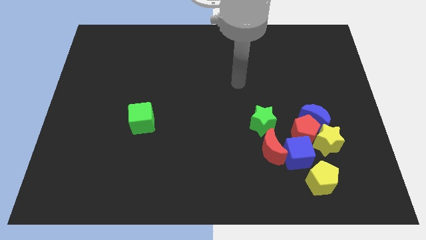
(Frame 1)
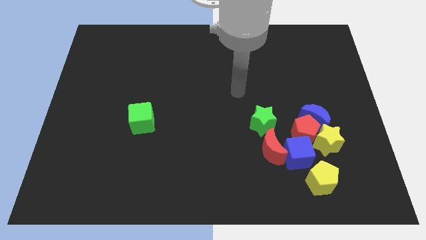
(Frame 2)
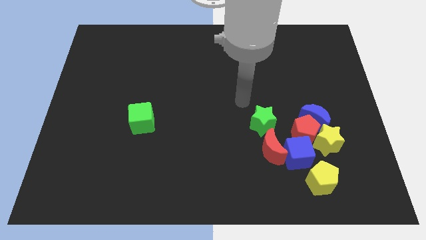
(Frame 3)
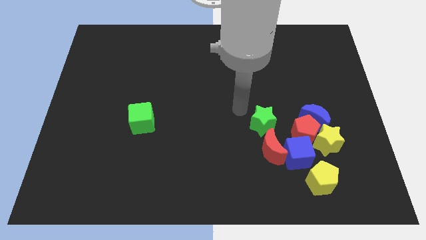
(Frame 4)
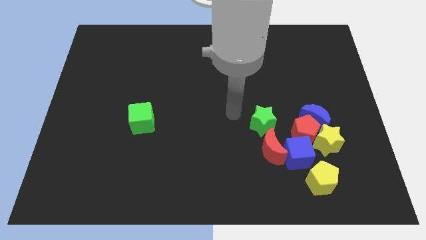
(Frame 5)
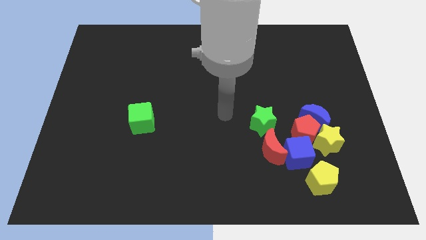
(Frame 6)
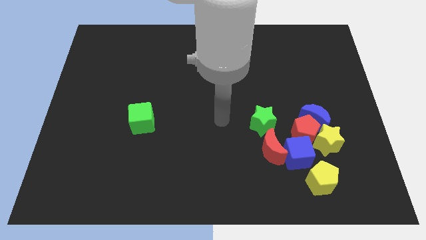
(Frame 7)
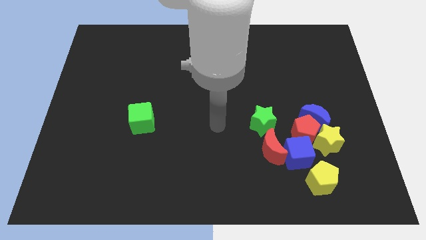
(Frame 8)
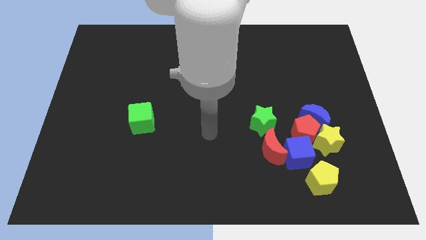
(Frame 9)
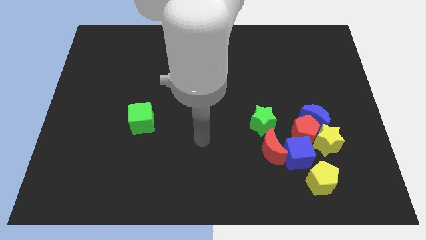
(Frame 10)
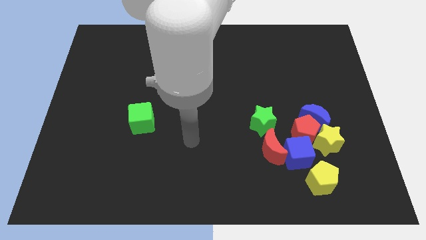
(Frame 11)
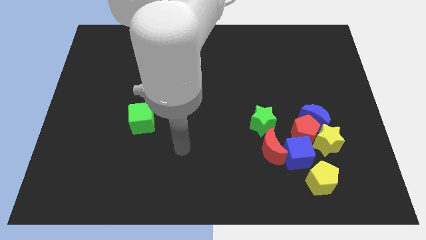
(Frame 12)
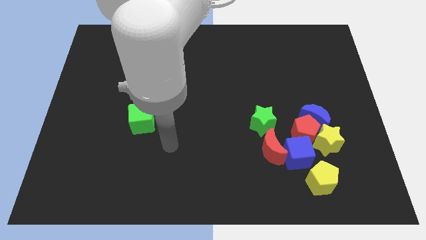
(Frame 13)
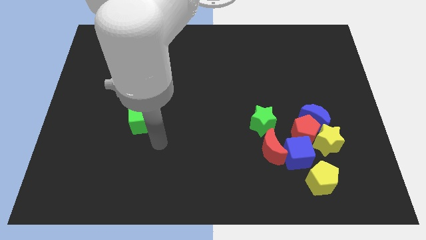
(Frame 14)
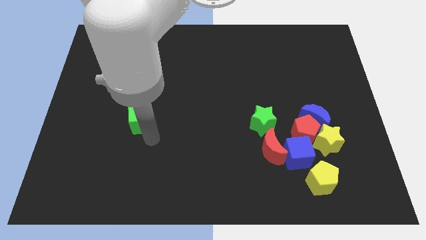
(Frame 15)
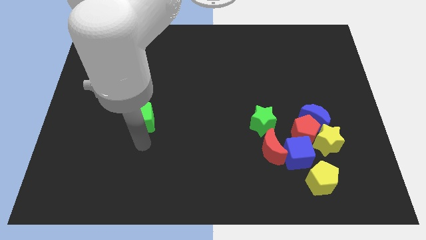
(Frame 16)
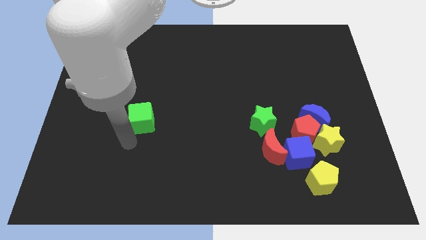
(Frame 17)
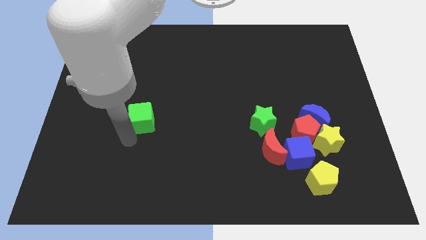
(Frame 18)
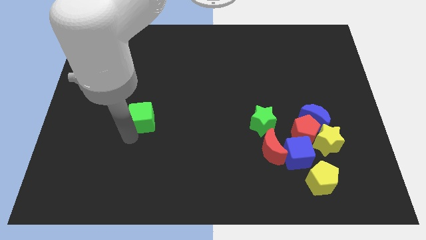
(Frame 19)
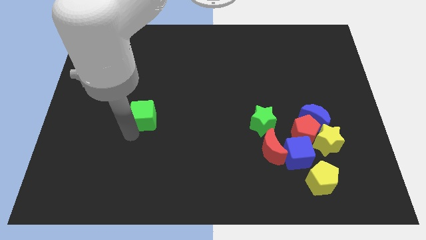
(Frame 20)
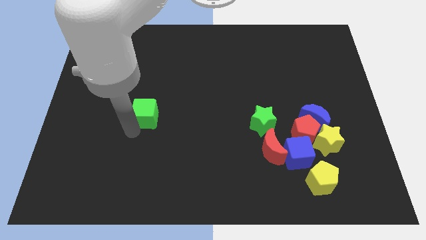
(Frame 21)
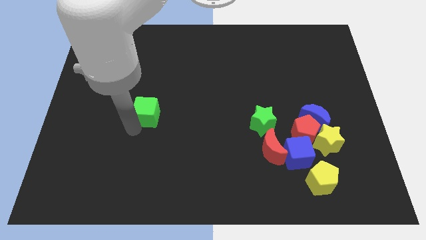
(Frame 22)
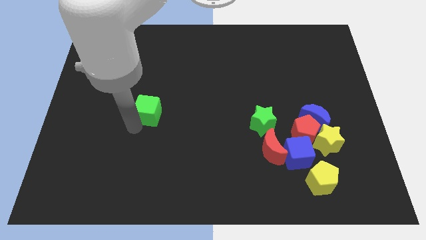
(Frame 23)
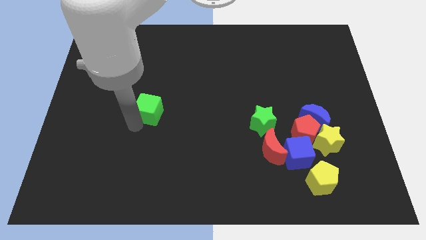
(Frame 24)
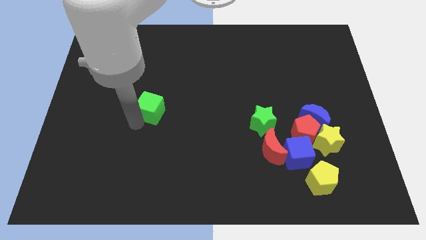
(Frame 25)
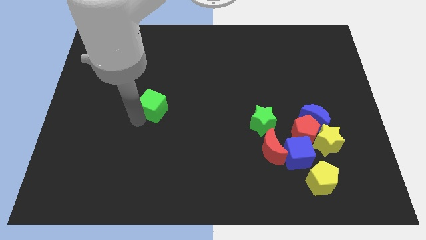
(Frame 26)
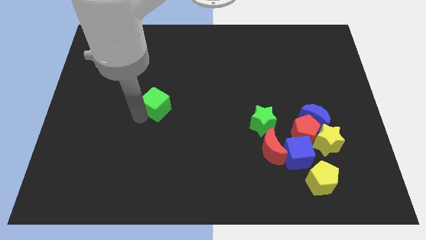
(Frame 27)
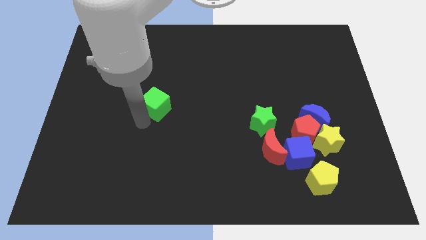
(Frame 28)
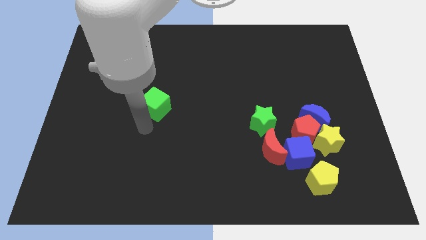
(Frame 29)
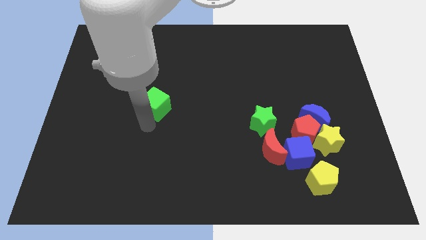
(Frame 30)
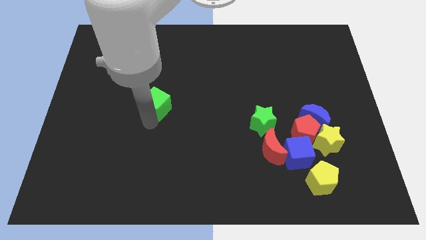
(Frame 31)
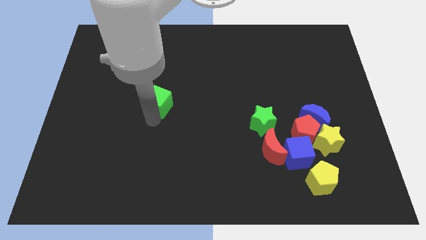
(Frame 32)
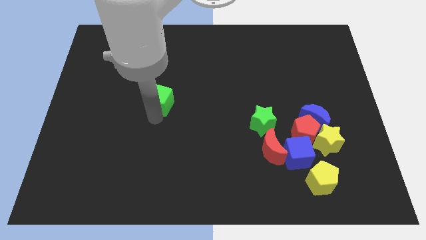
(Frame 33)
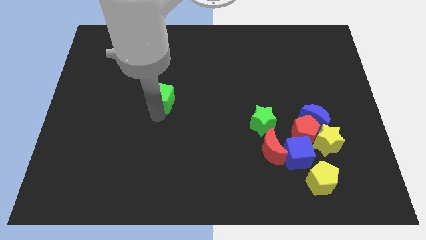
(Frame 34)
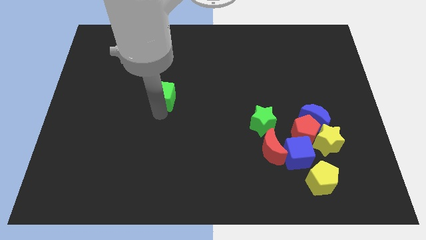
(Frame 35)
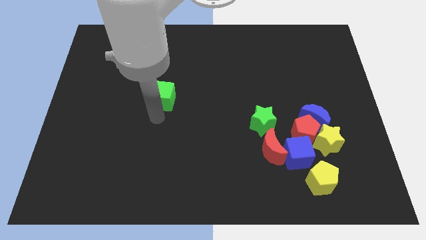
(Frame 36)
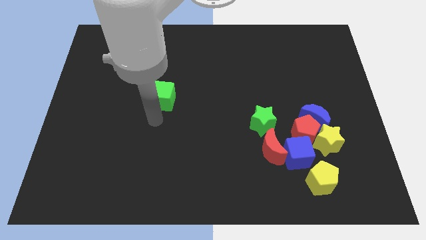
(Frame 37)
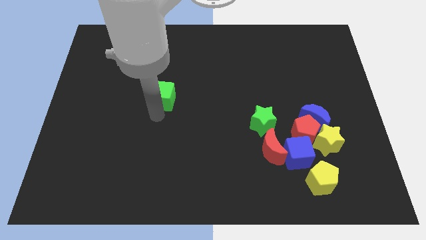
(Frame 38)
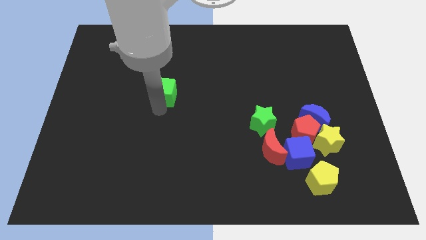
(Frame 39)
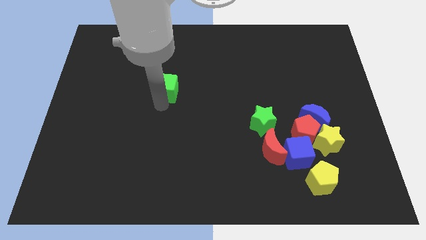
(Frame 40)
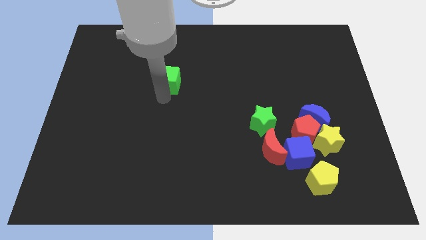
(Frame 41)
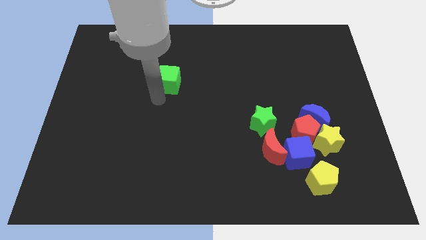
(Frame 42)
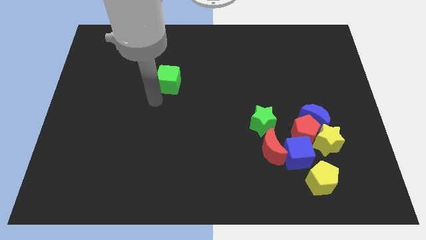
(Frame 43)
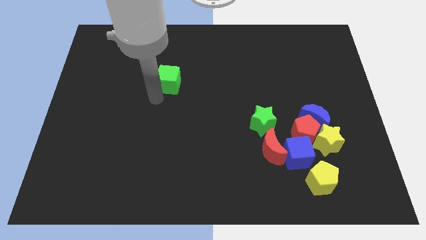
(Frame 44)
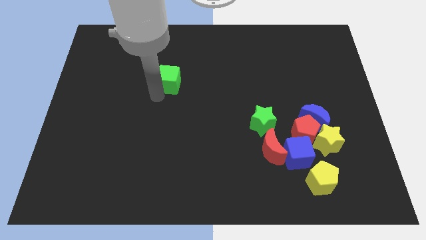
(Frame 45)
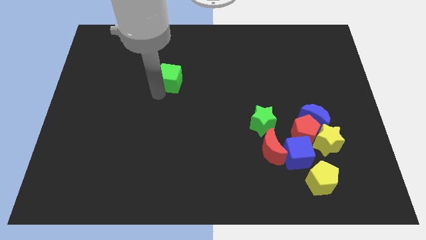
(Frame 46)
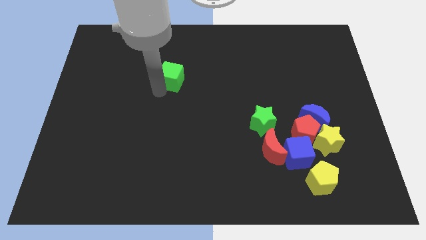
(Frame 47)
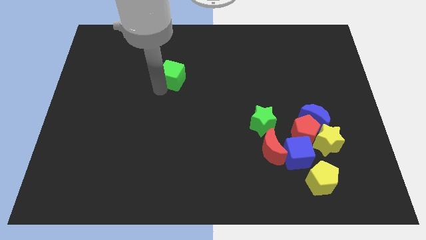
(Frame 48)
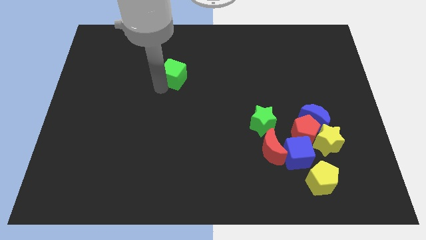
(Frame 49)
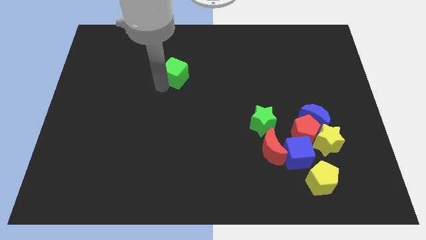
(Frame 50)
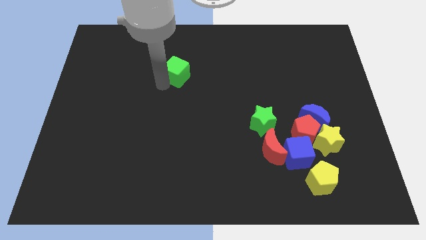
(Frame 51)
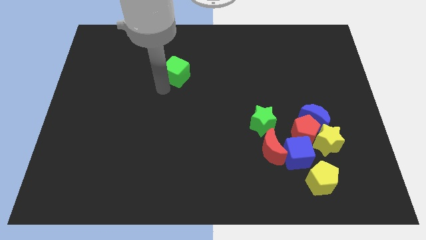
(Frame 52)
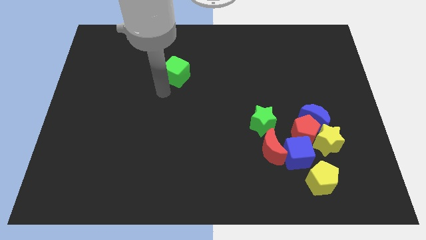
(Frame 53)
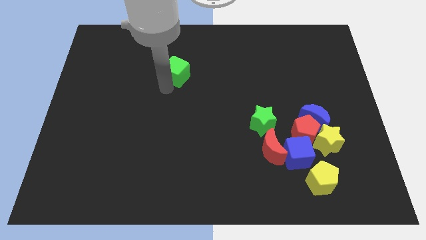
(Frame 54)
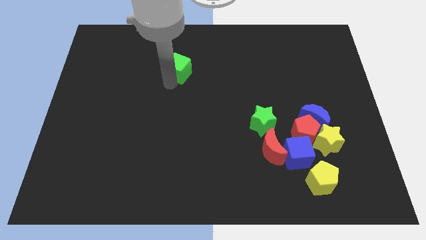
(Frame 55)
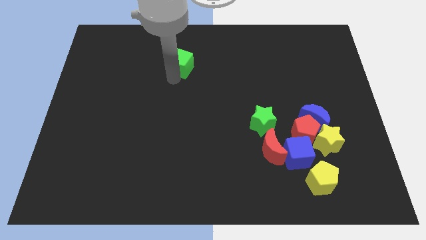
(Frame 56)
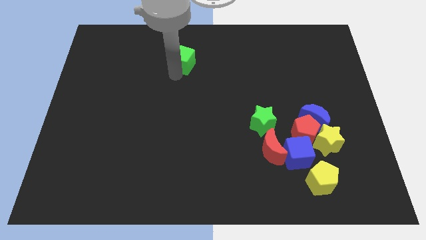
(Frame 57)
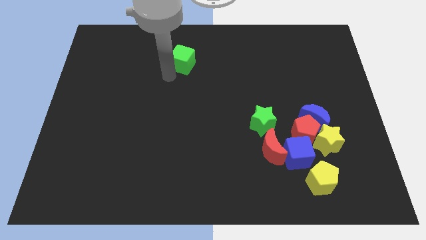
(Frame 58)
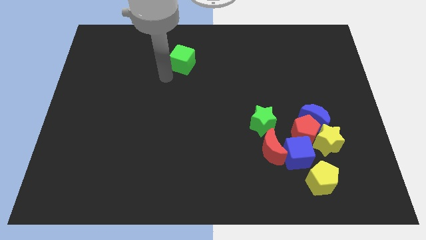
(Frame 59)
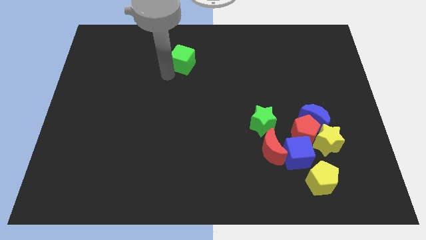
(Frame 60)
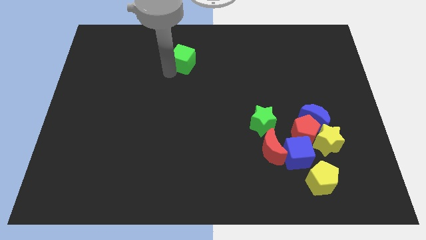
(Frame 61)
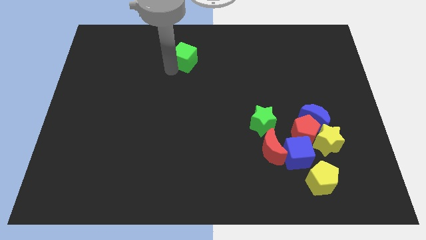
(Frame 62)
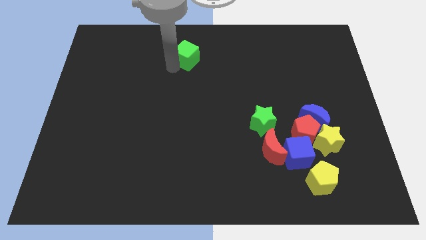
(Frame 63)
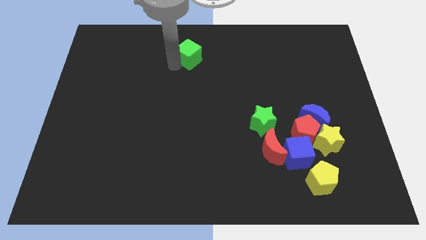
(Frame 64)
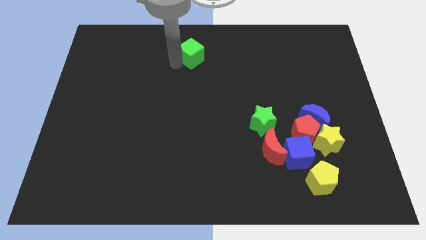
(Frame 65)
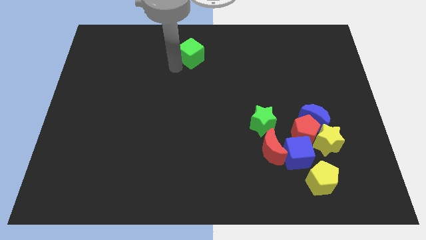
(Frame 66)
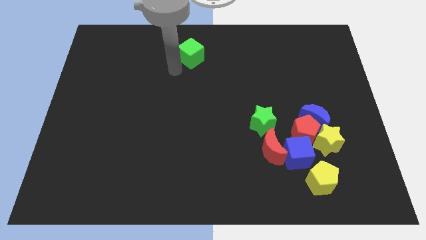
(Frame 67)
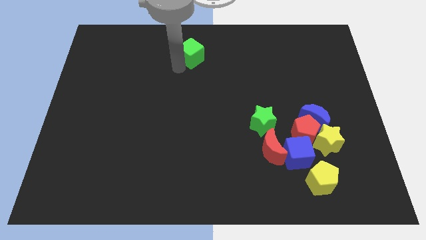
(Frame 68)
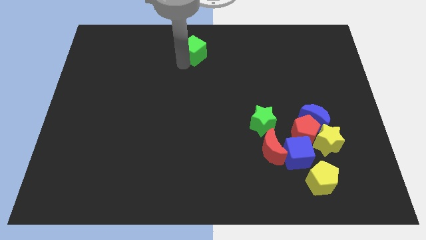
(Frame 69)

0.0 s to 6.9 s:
put the green cube to the top side
